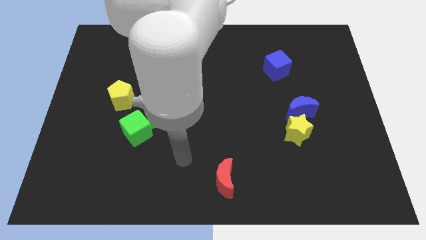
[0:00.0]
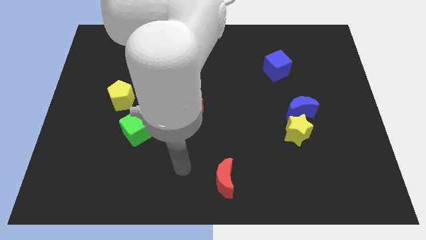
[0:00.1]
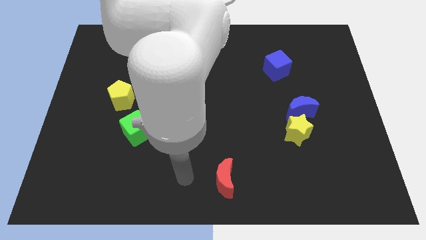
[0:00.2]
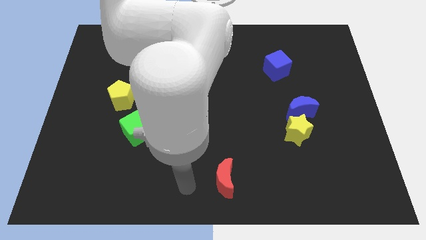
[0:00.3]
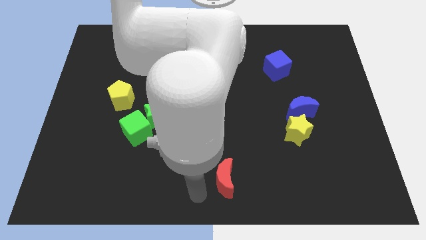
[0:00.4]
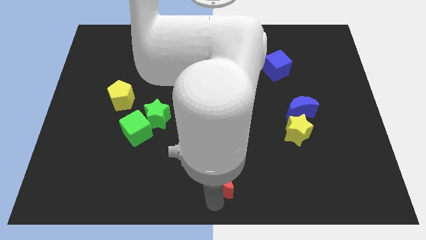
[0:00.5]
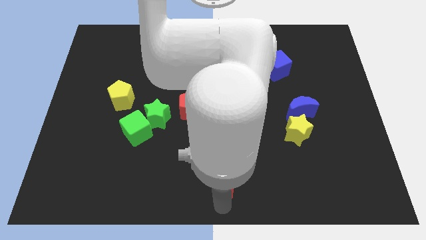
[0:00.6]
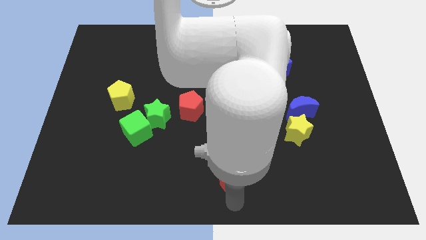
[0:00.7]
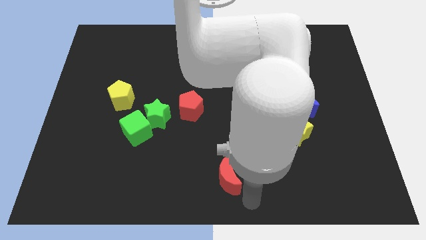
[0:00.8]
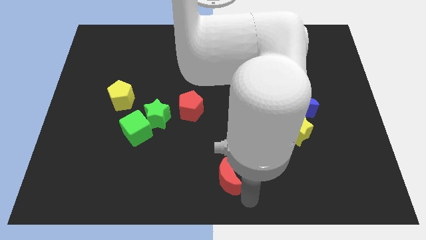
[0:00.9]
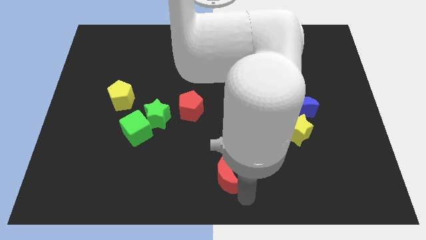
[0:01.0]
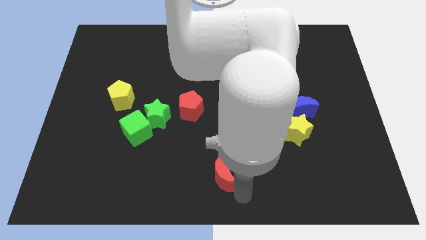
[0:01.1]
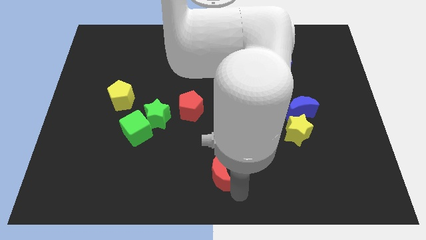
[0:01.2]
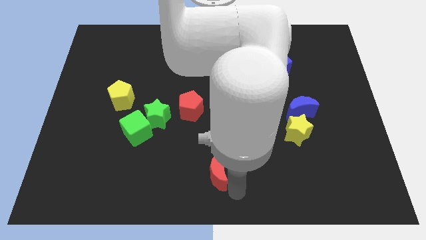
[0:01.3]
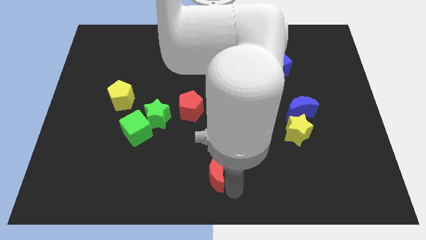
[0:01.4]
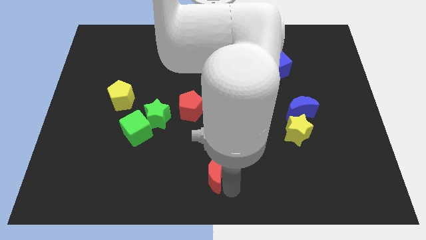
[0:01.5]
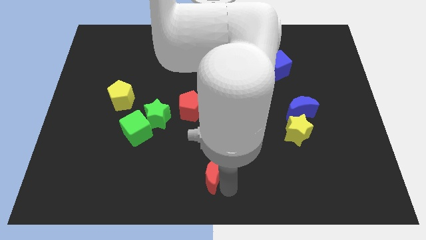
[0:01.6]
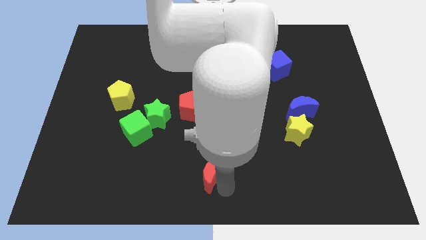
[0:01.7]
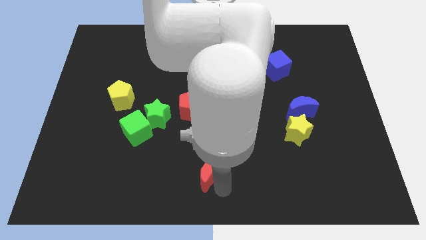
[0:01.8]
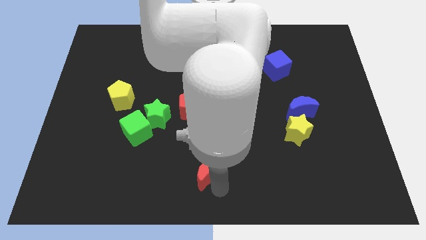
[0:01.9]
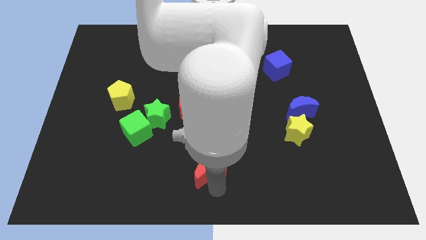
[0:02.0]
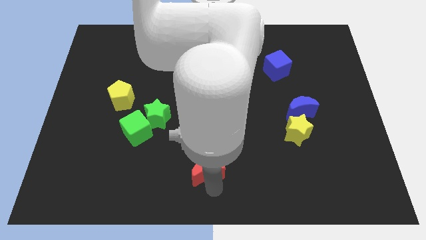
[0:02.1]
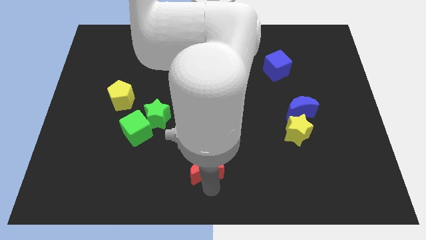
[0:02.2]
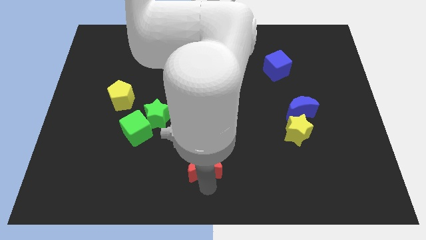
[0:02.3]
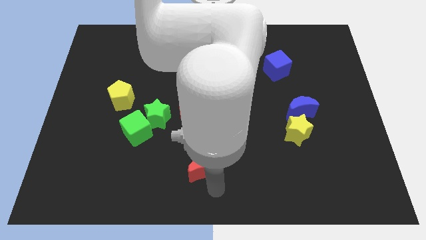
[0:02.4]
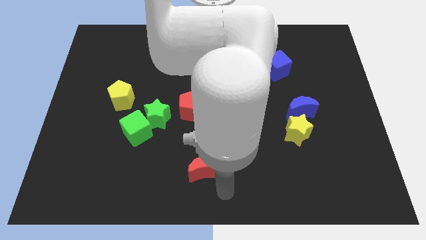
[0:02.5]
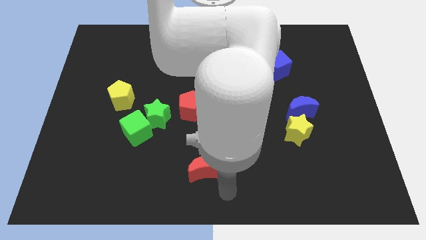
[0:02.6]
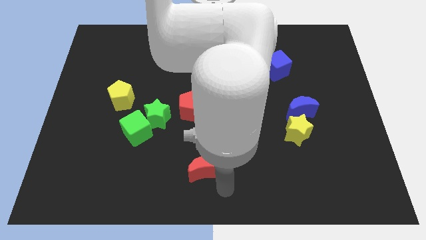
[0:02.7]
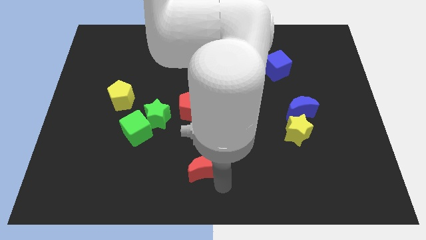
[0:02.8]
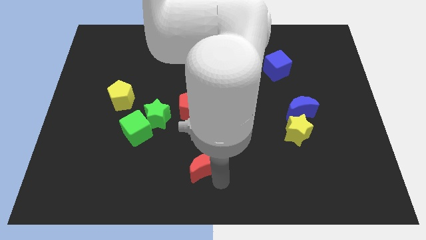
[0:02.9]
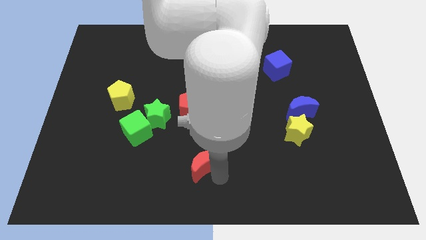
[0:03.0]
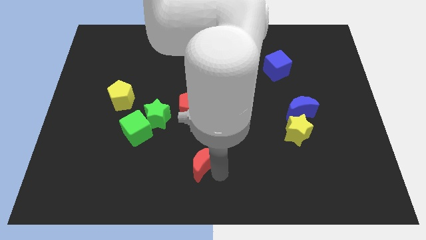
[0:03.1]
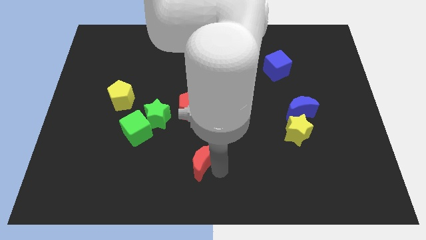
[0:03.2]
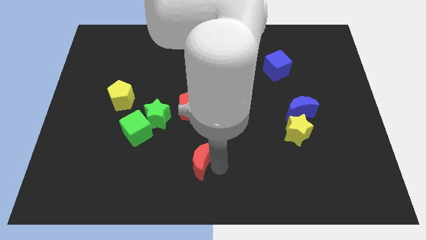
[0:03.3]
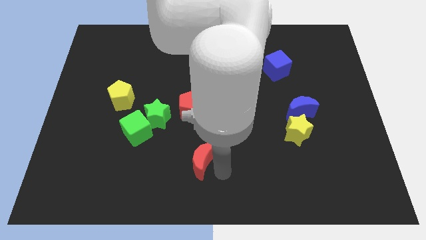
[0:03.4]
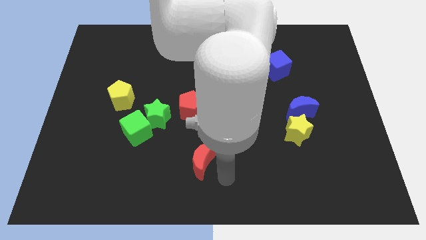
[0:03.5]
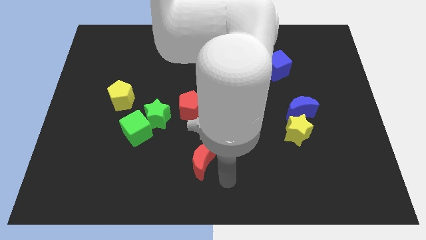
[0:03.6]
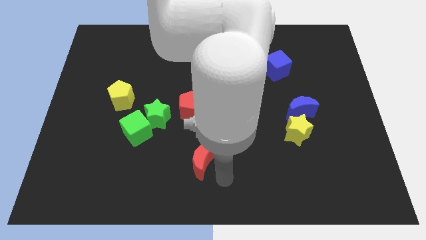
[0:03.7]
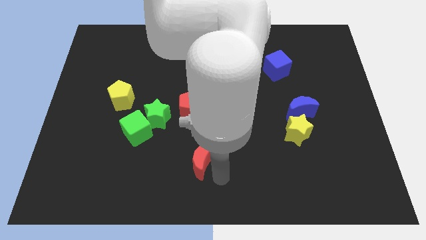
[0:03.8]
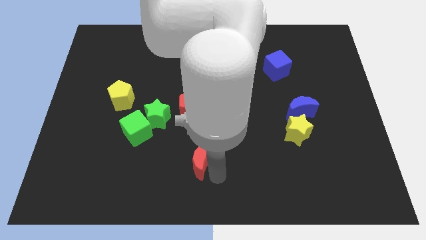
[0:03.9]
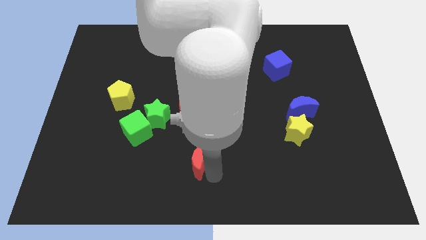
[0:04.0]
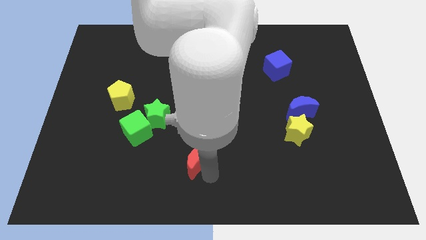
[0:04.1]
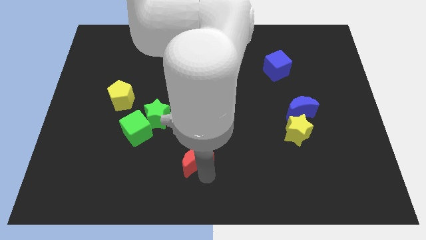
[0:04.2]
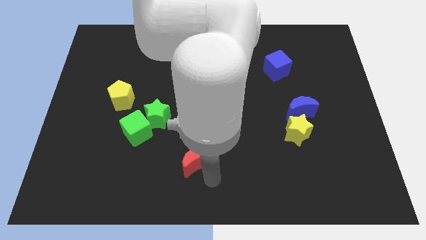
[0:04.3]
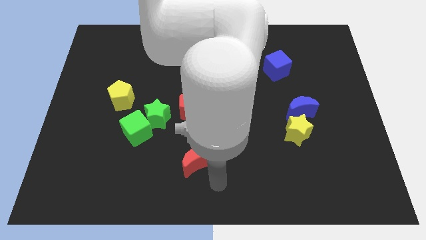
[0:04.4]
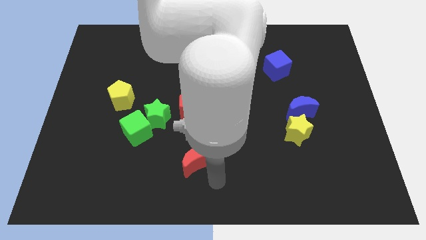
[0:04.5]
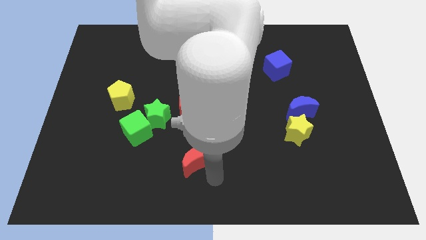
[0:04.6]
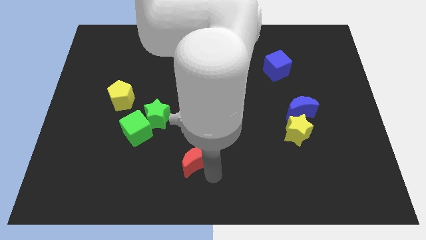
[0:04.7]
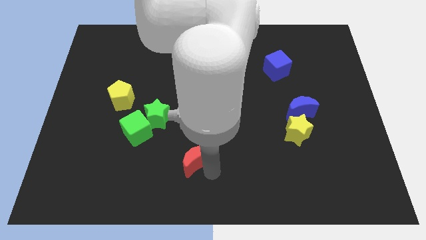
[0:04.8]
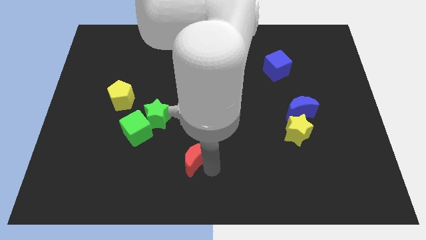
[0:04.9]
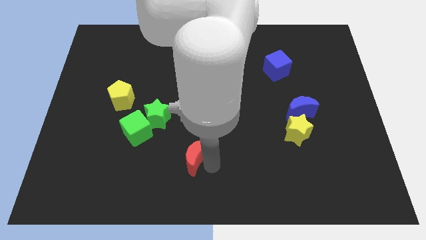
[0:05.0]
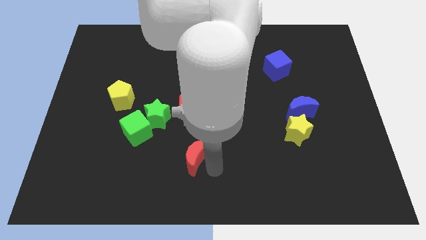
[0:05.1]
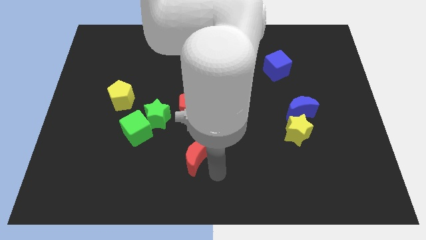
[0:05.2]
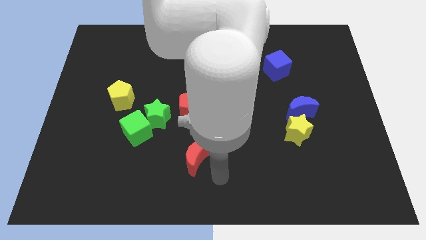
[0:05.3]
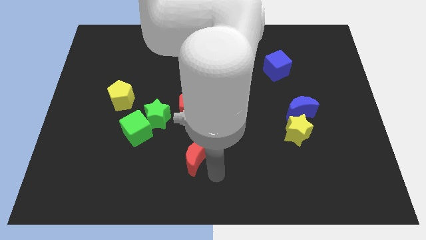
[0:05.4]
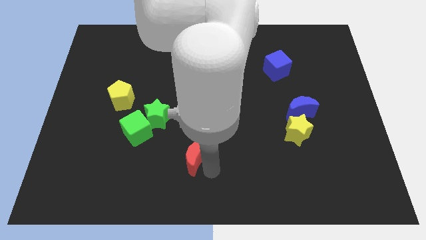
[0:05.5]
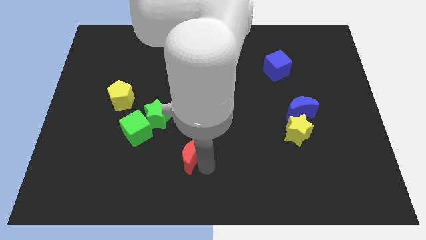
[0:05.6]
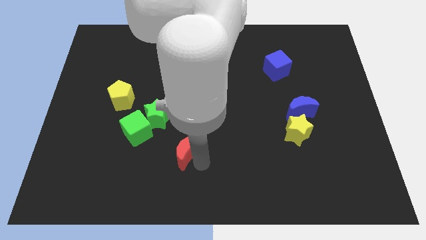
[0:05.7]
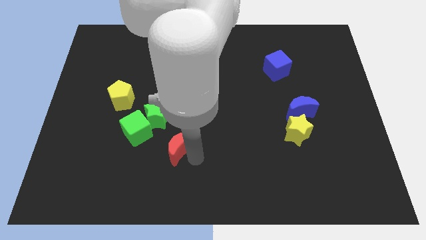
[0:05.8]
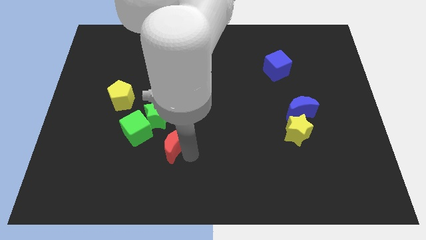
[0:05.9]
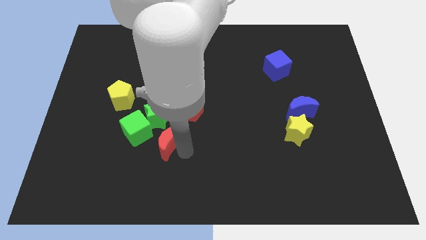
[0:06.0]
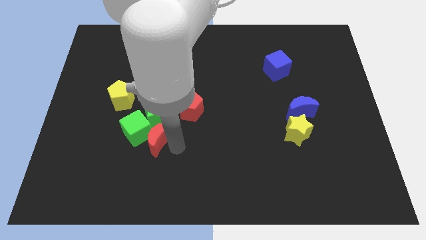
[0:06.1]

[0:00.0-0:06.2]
slide the red moon close to the green cube

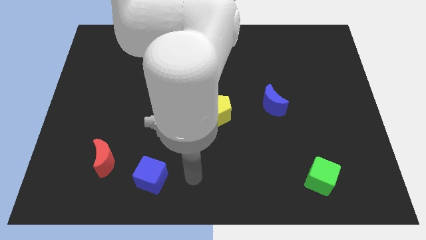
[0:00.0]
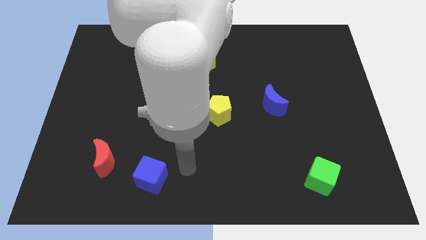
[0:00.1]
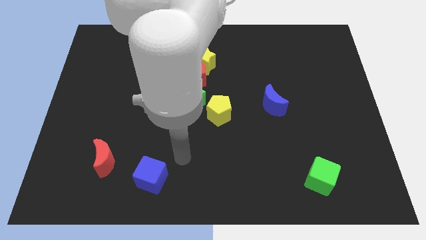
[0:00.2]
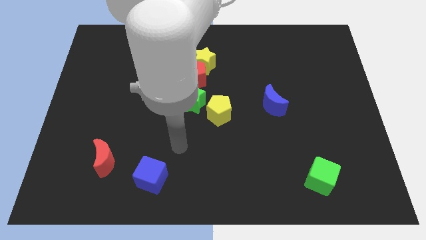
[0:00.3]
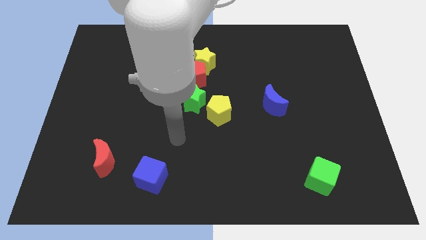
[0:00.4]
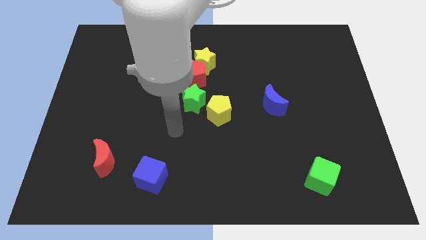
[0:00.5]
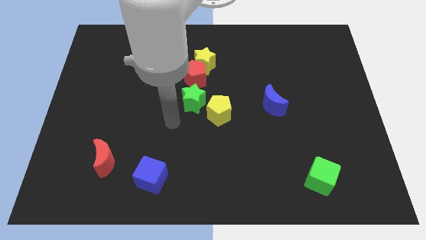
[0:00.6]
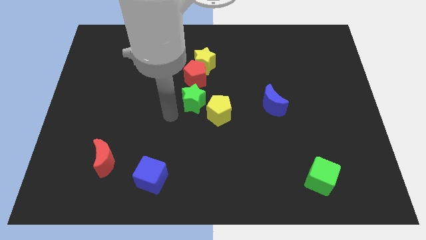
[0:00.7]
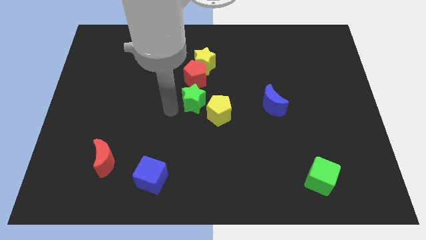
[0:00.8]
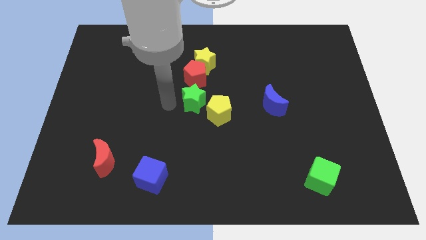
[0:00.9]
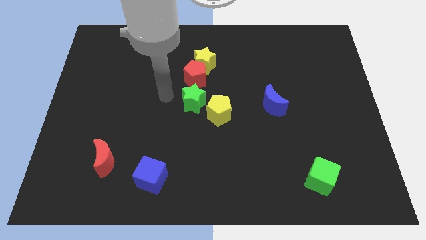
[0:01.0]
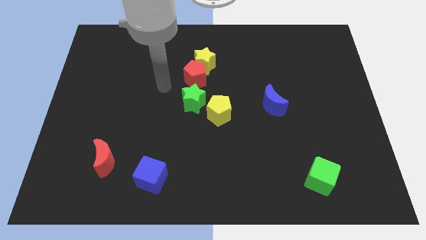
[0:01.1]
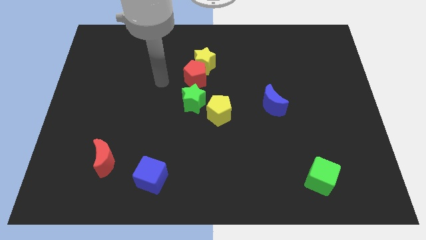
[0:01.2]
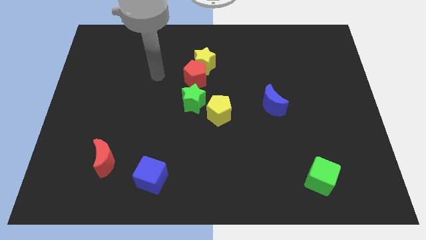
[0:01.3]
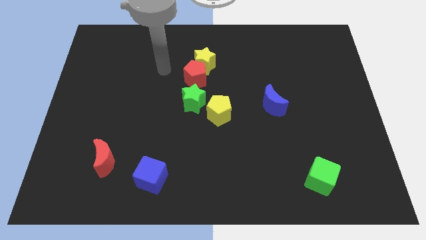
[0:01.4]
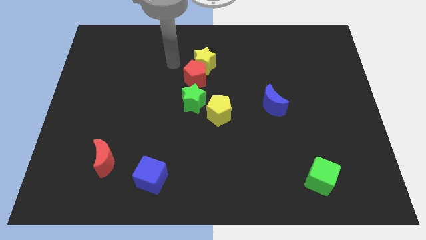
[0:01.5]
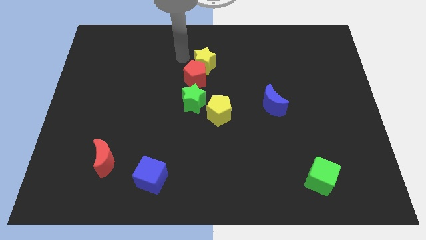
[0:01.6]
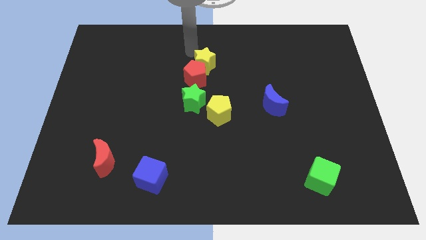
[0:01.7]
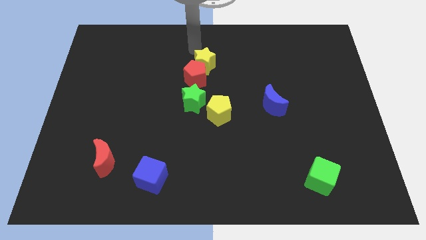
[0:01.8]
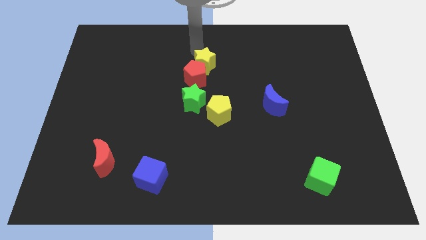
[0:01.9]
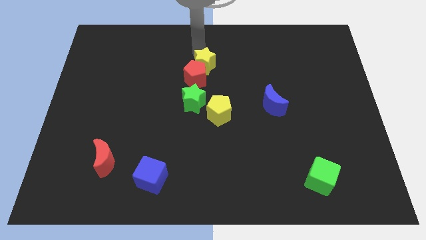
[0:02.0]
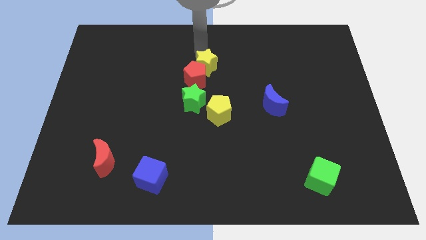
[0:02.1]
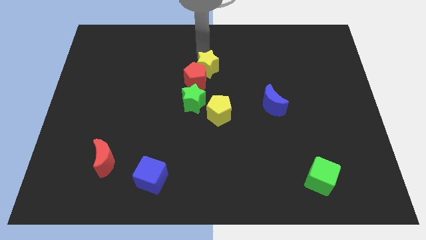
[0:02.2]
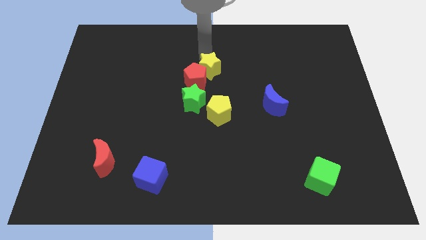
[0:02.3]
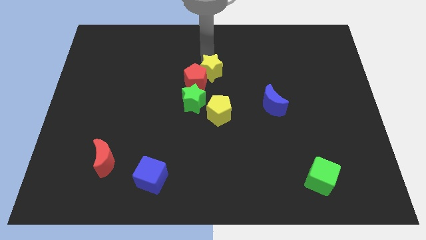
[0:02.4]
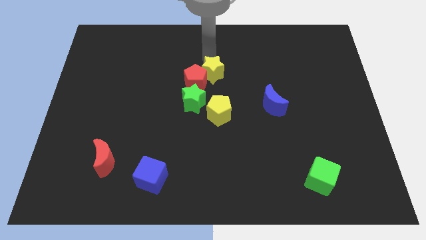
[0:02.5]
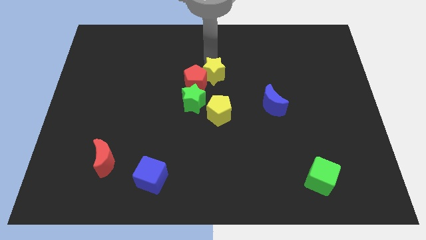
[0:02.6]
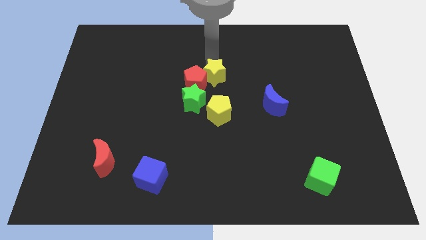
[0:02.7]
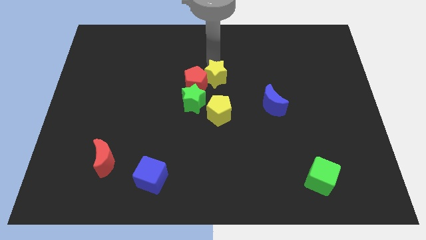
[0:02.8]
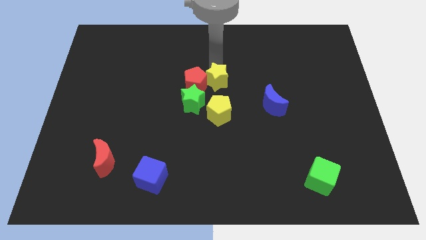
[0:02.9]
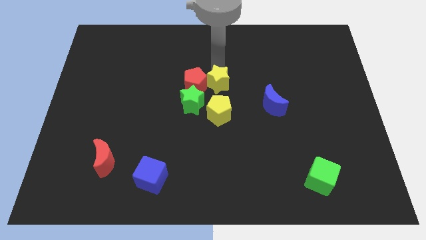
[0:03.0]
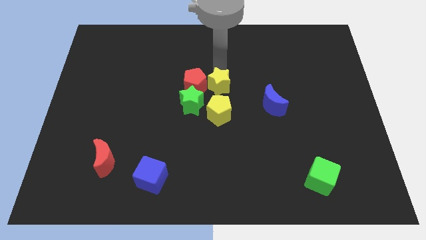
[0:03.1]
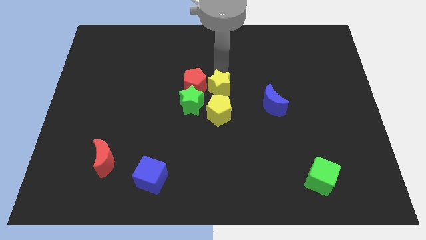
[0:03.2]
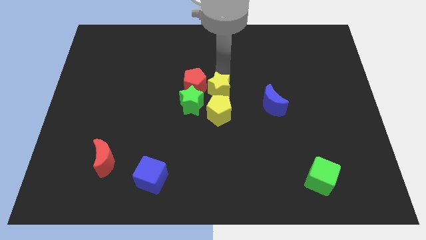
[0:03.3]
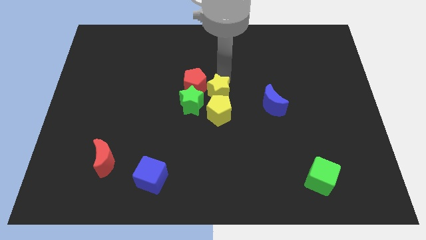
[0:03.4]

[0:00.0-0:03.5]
put the yellow star close to the yellow pentagon
